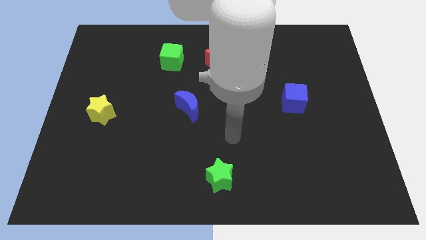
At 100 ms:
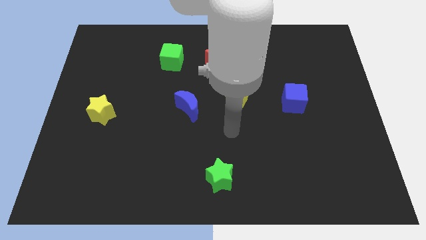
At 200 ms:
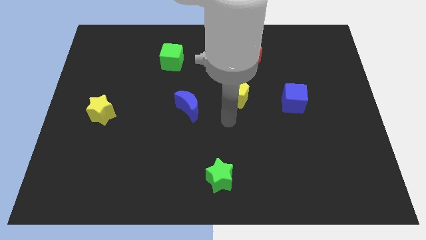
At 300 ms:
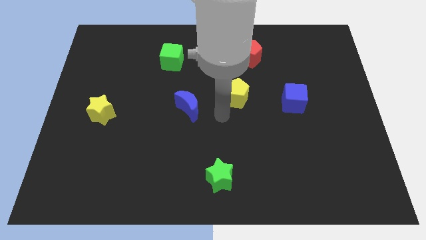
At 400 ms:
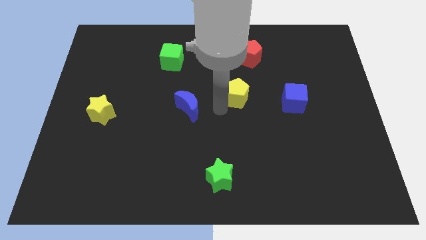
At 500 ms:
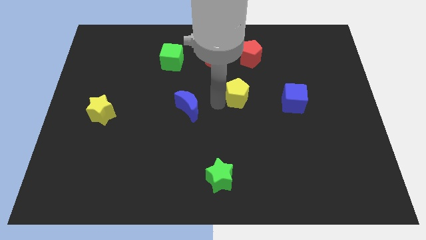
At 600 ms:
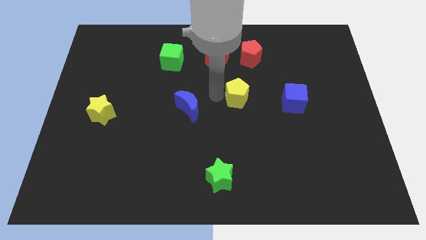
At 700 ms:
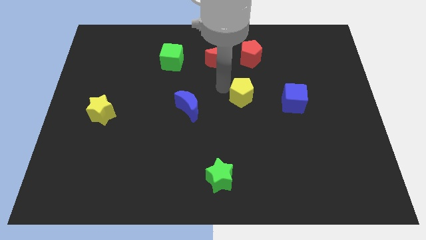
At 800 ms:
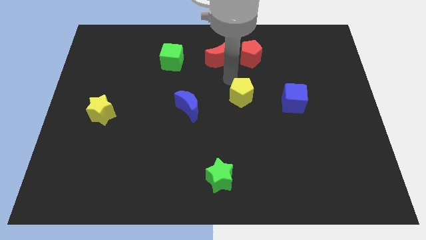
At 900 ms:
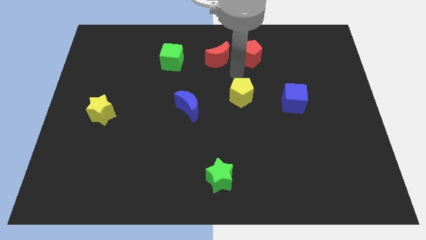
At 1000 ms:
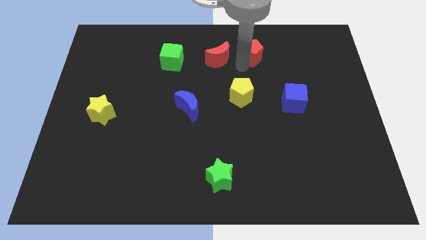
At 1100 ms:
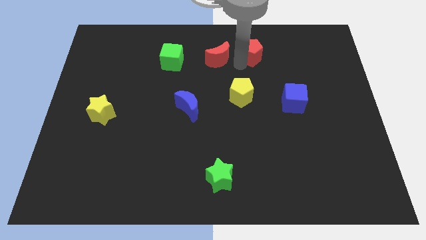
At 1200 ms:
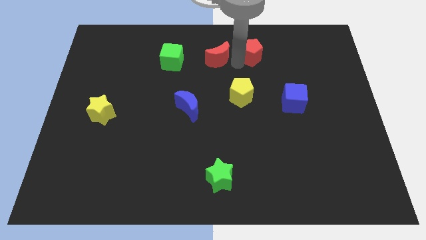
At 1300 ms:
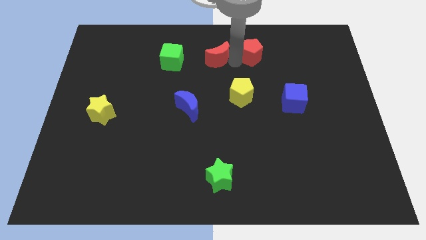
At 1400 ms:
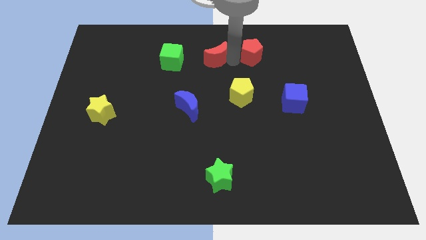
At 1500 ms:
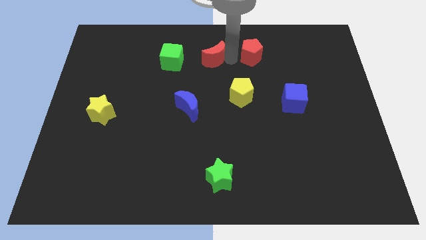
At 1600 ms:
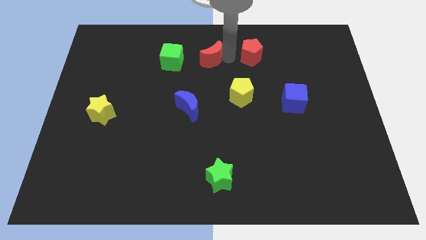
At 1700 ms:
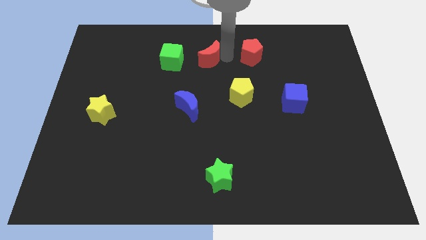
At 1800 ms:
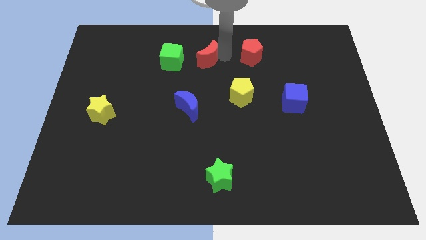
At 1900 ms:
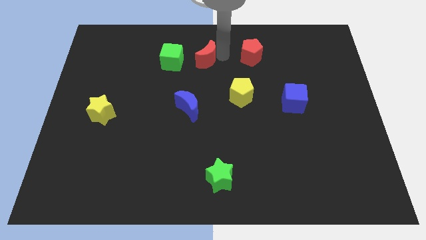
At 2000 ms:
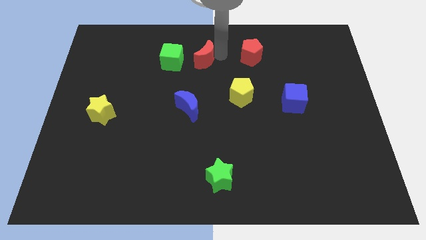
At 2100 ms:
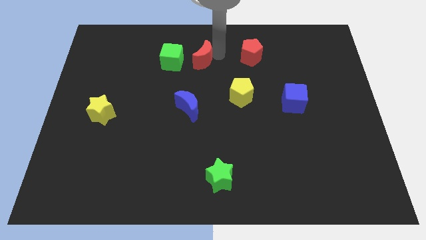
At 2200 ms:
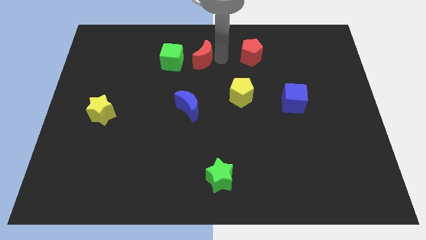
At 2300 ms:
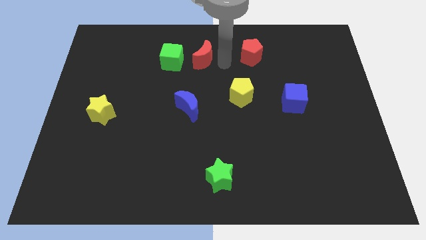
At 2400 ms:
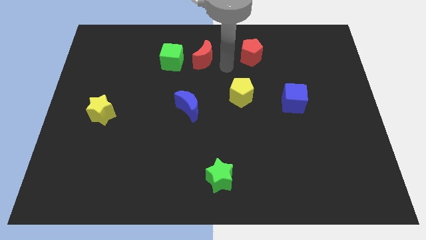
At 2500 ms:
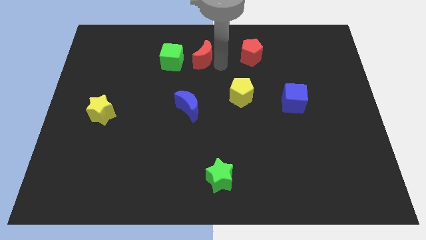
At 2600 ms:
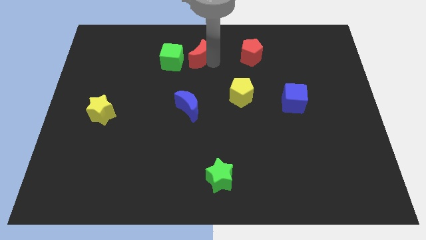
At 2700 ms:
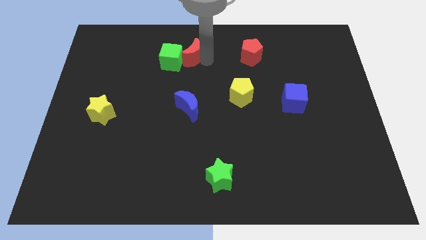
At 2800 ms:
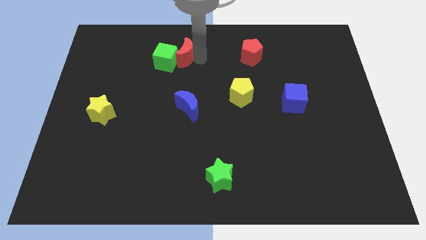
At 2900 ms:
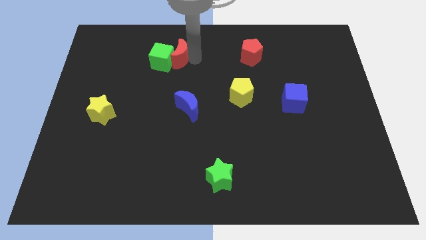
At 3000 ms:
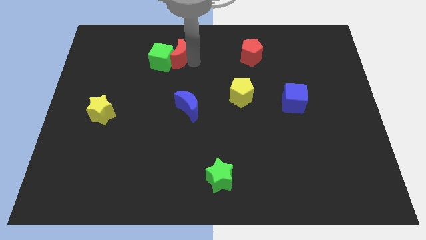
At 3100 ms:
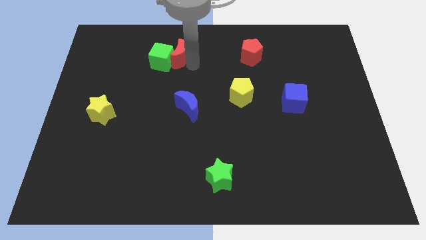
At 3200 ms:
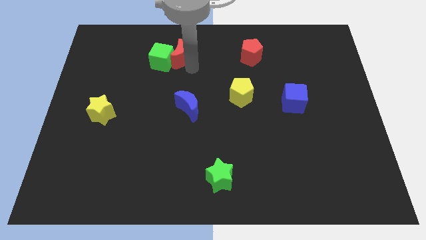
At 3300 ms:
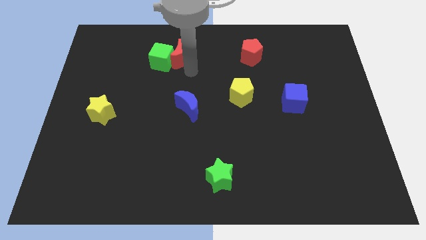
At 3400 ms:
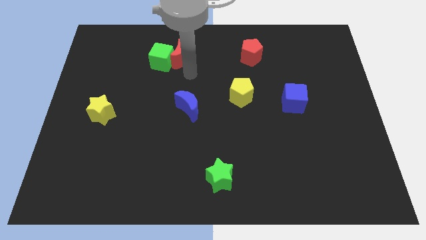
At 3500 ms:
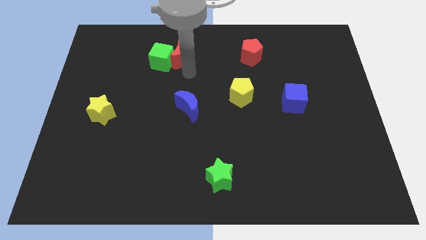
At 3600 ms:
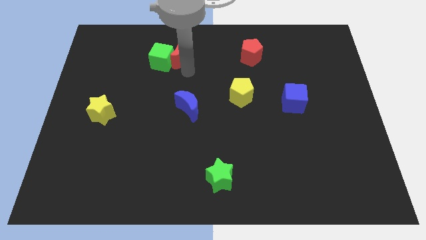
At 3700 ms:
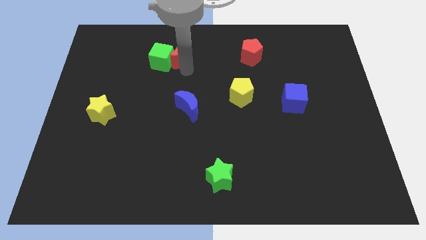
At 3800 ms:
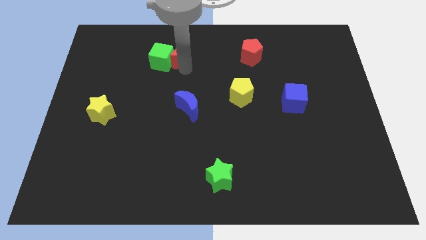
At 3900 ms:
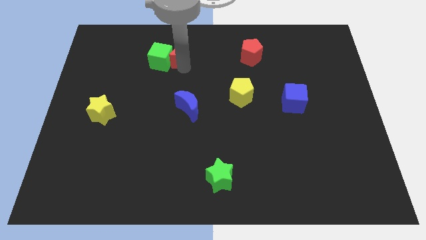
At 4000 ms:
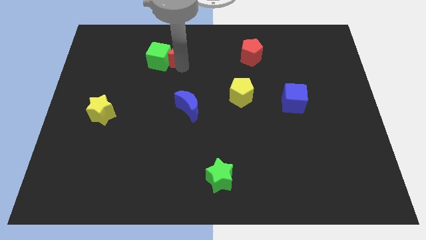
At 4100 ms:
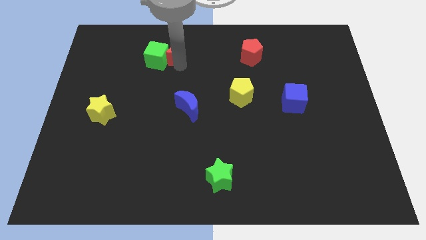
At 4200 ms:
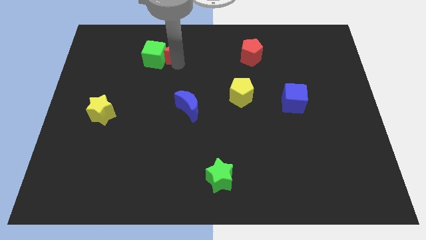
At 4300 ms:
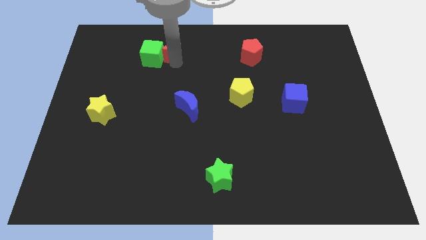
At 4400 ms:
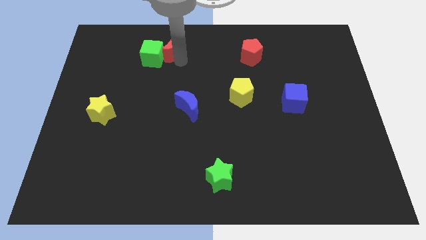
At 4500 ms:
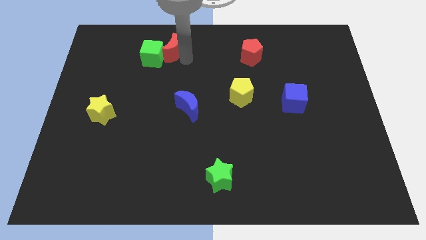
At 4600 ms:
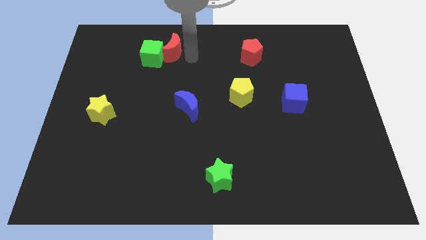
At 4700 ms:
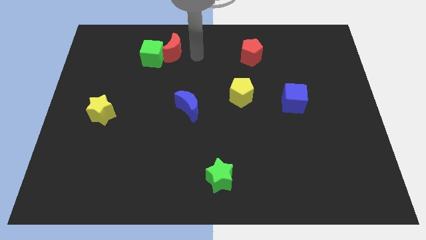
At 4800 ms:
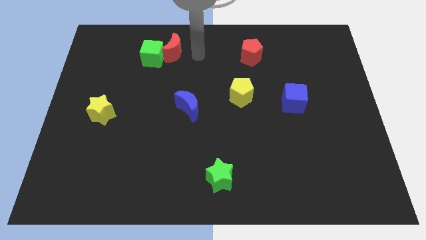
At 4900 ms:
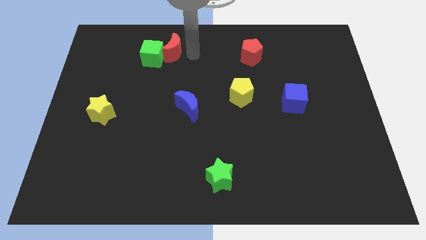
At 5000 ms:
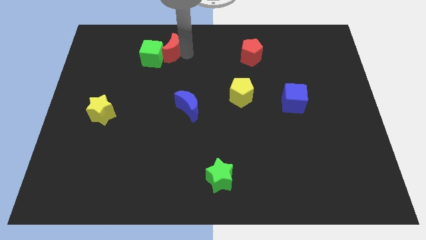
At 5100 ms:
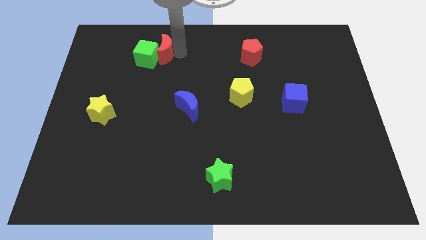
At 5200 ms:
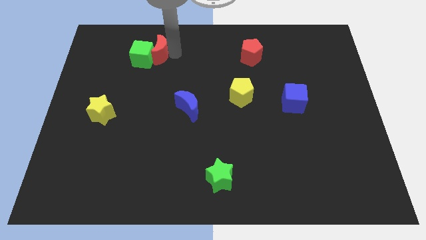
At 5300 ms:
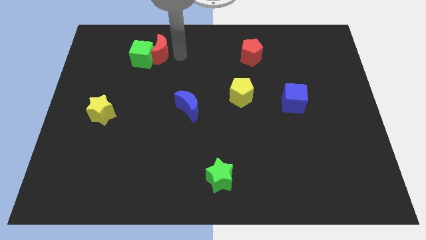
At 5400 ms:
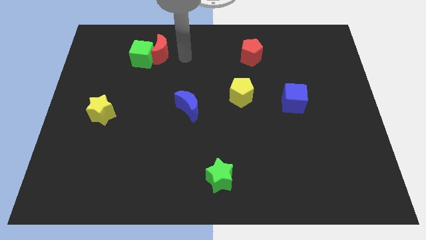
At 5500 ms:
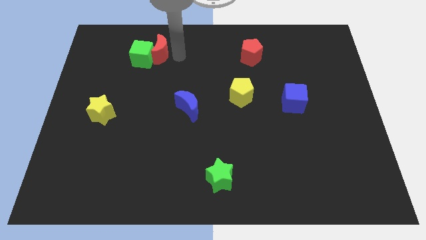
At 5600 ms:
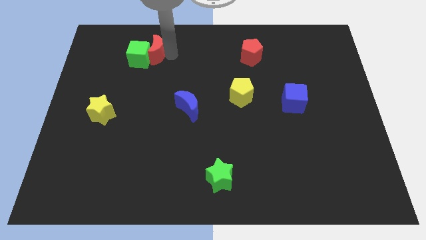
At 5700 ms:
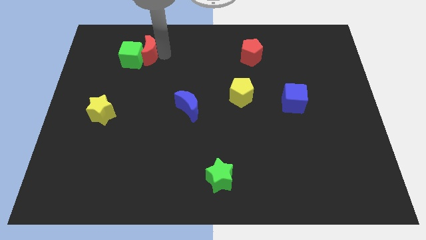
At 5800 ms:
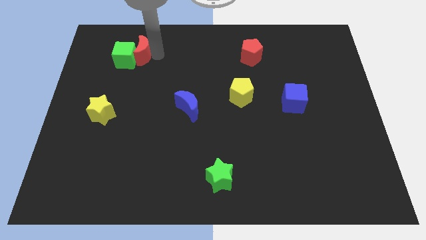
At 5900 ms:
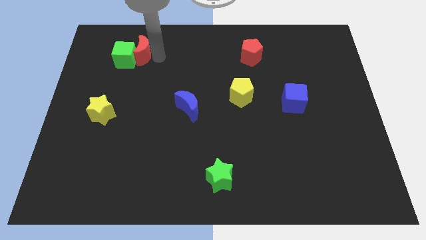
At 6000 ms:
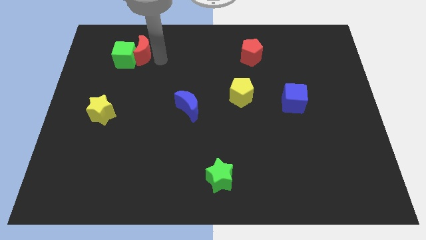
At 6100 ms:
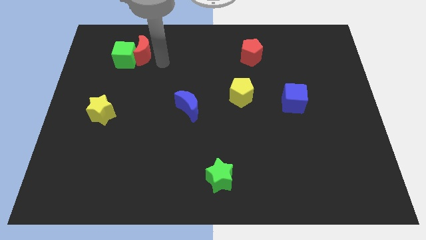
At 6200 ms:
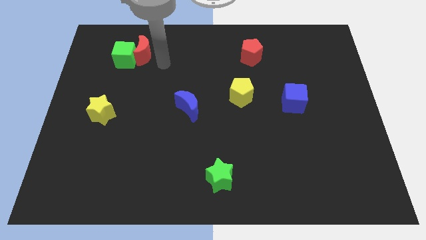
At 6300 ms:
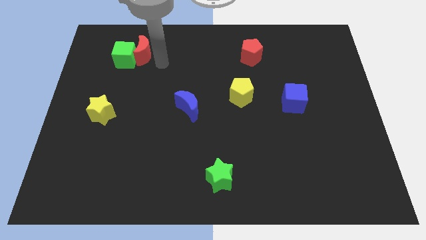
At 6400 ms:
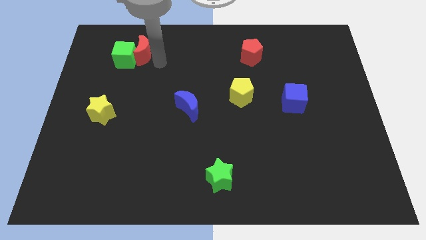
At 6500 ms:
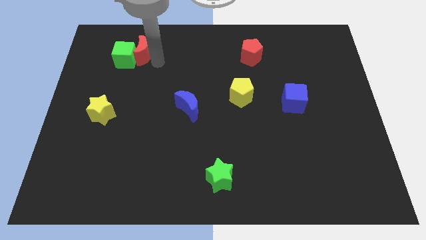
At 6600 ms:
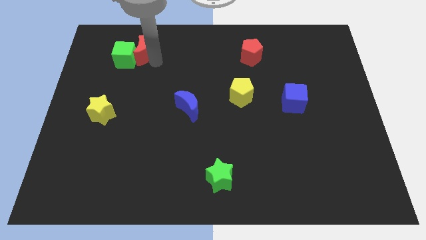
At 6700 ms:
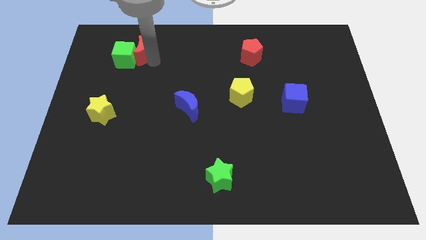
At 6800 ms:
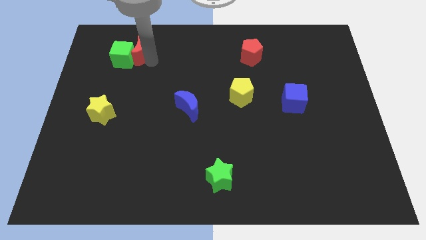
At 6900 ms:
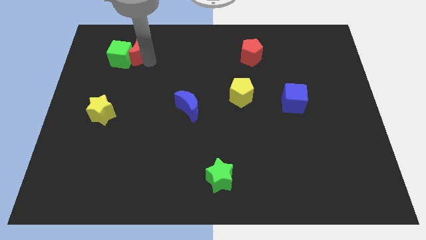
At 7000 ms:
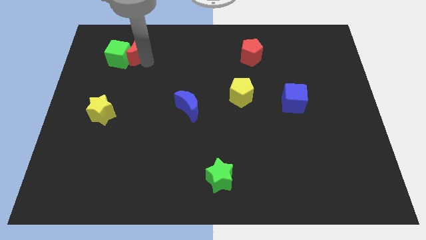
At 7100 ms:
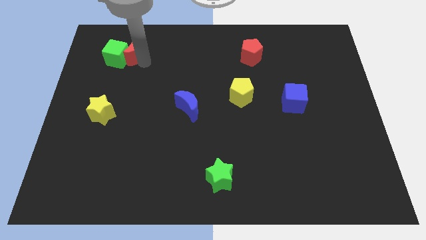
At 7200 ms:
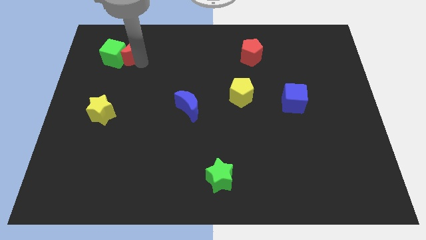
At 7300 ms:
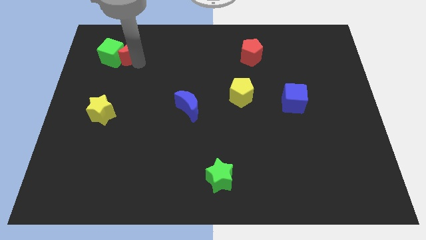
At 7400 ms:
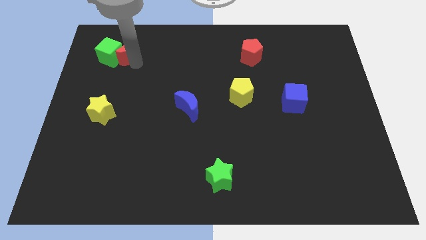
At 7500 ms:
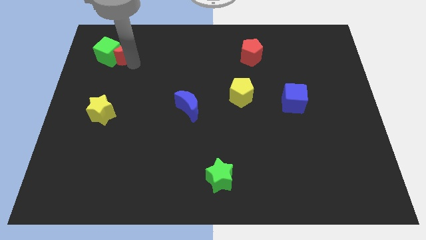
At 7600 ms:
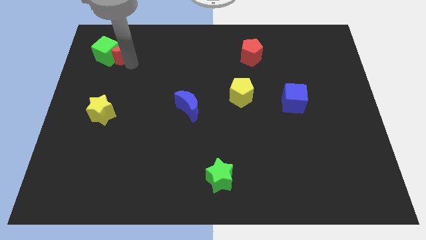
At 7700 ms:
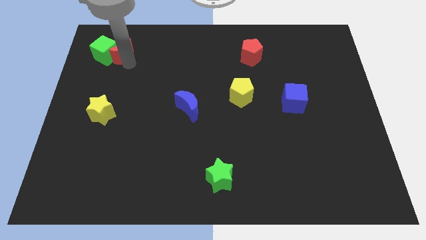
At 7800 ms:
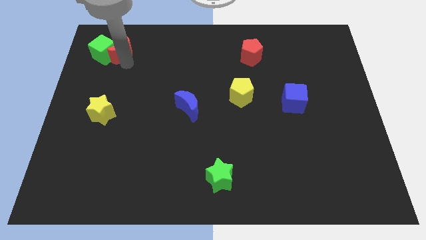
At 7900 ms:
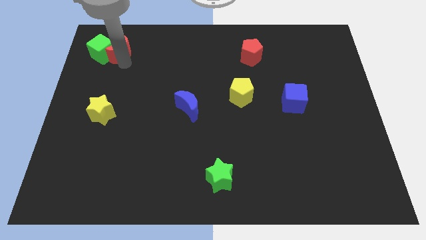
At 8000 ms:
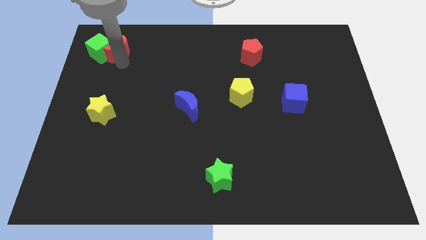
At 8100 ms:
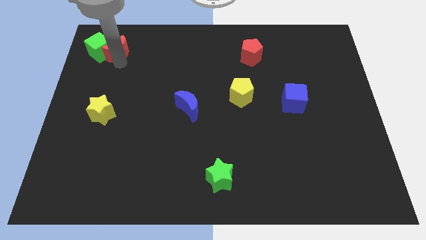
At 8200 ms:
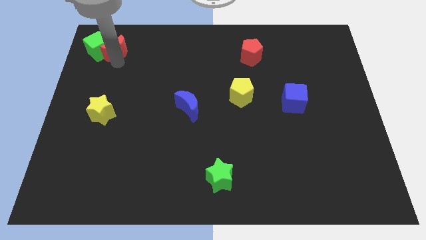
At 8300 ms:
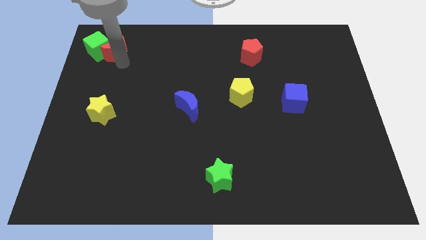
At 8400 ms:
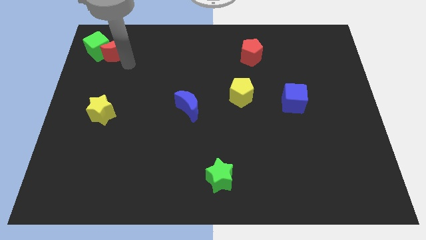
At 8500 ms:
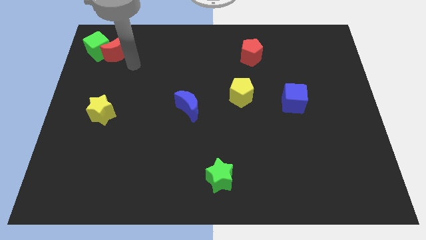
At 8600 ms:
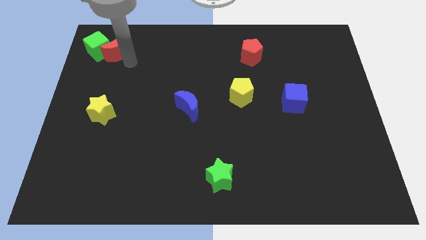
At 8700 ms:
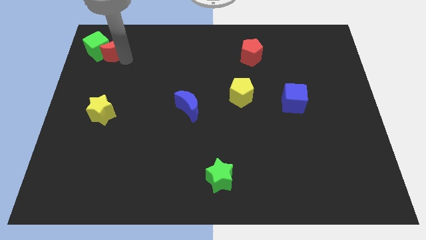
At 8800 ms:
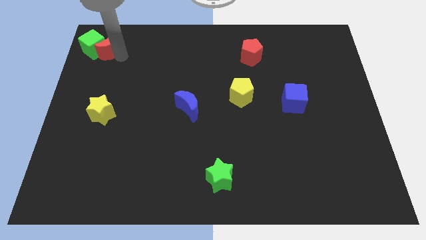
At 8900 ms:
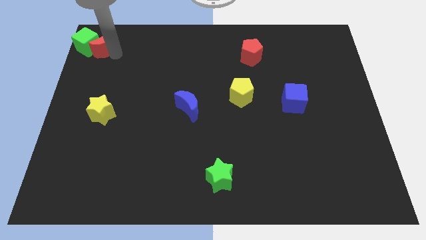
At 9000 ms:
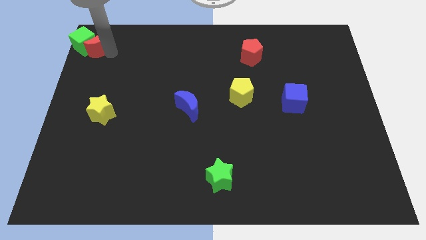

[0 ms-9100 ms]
slide the red moon to the top left corner
